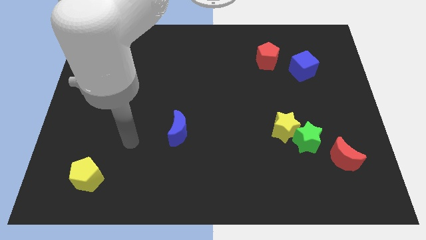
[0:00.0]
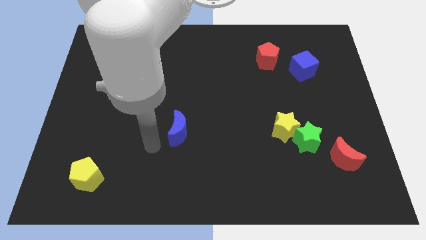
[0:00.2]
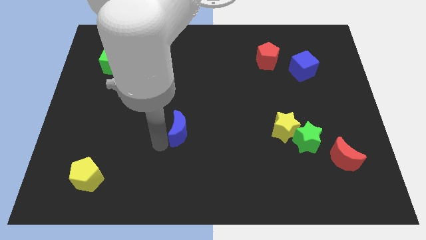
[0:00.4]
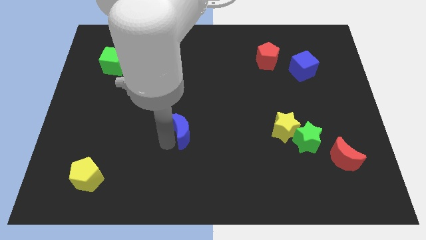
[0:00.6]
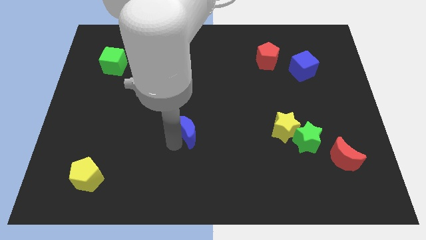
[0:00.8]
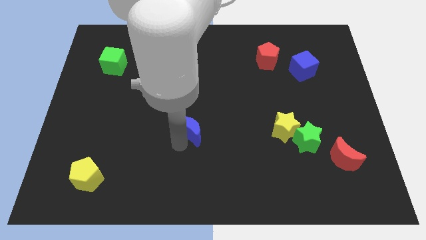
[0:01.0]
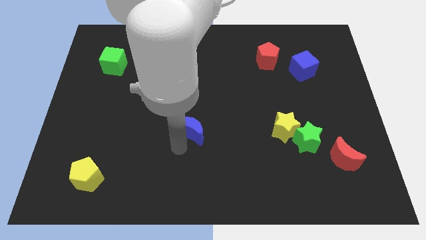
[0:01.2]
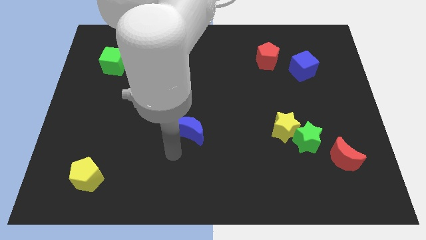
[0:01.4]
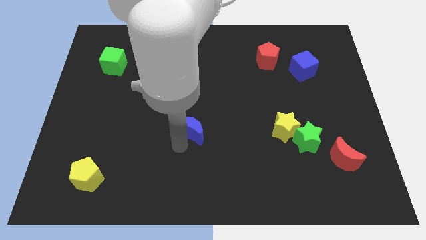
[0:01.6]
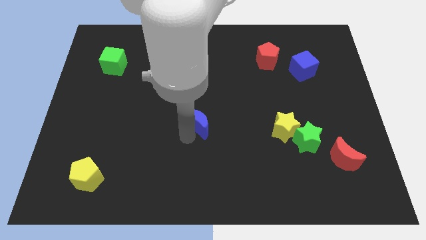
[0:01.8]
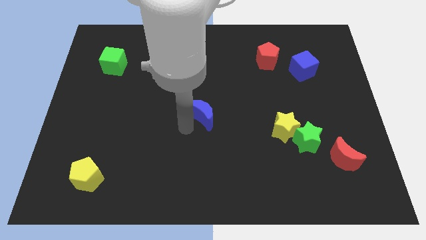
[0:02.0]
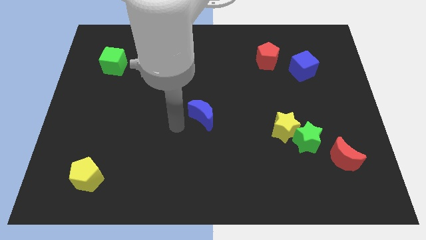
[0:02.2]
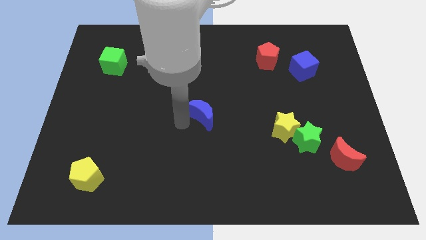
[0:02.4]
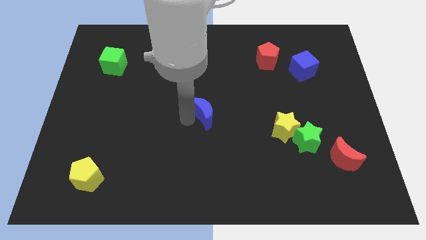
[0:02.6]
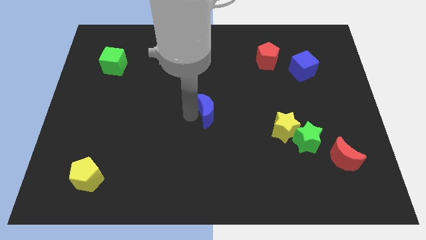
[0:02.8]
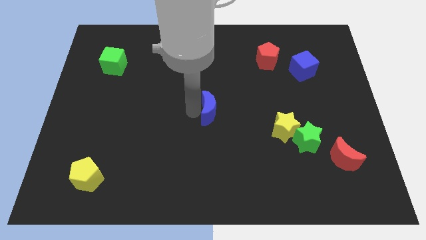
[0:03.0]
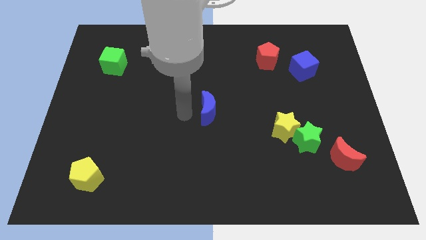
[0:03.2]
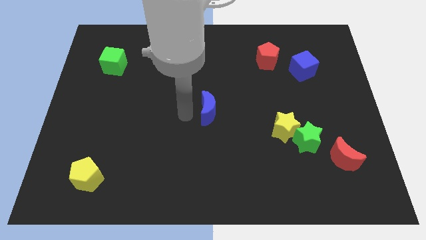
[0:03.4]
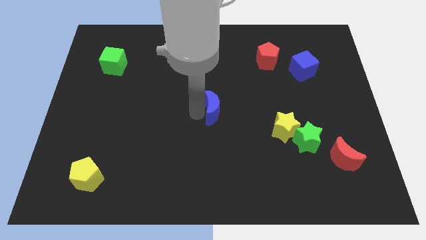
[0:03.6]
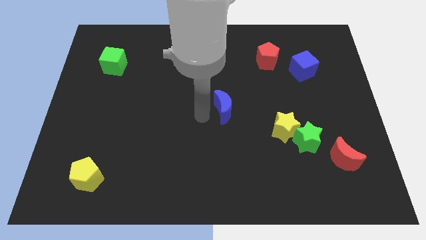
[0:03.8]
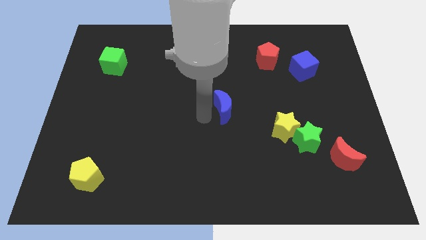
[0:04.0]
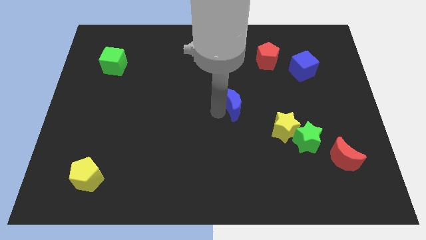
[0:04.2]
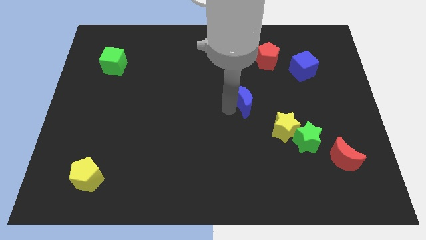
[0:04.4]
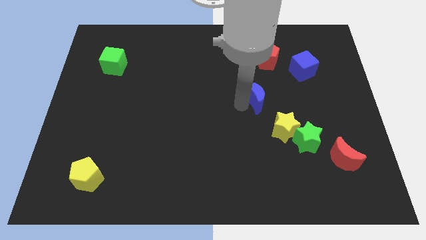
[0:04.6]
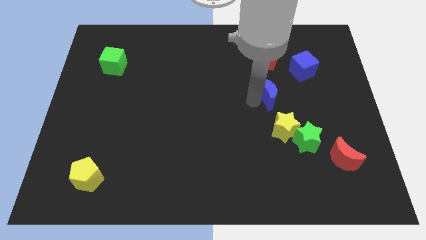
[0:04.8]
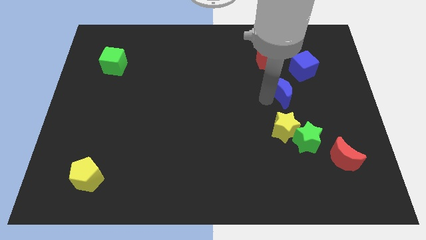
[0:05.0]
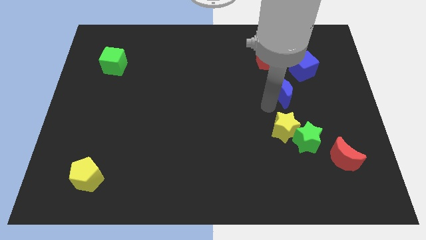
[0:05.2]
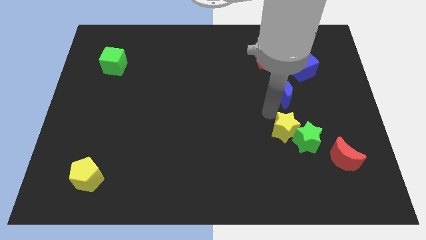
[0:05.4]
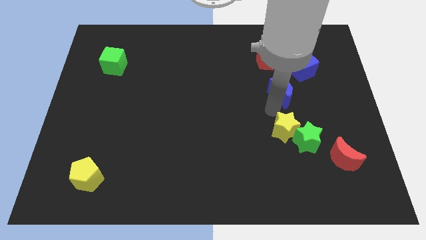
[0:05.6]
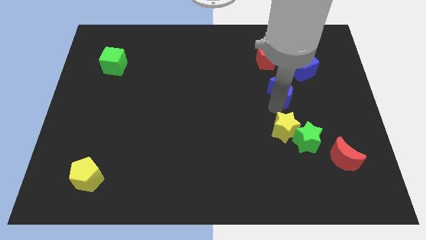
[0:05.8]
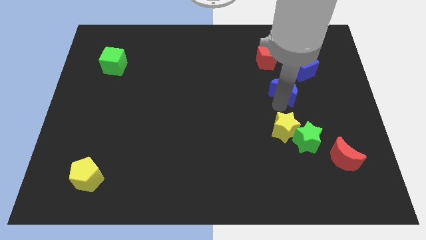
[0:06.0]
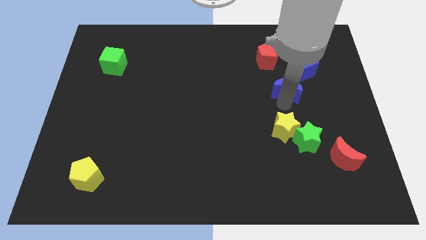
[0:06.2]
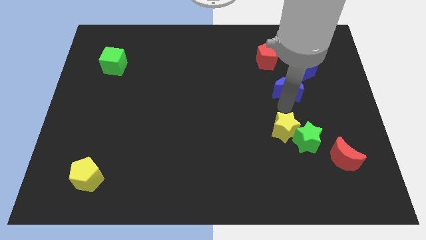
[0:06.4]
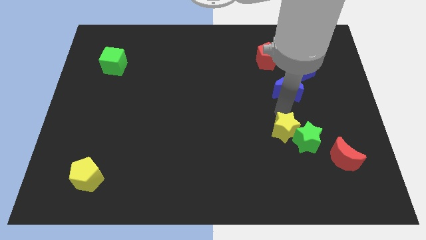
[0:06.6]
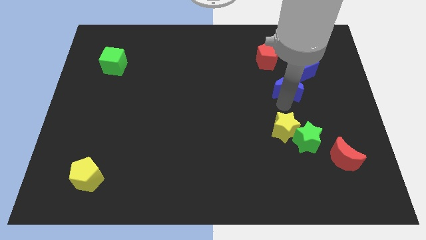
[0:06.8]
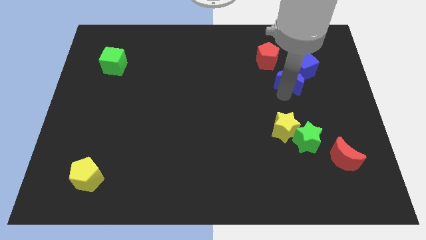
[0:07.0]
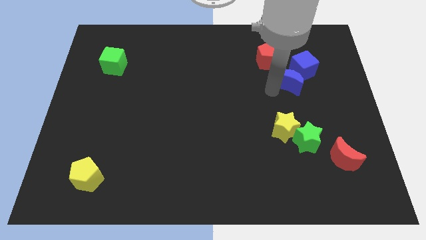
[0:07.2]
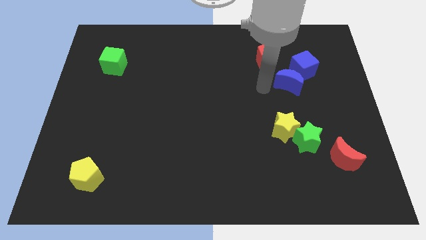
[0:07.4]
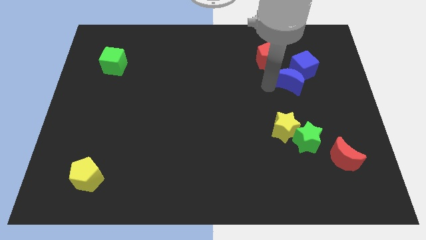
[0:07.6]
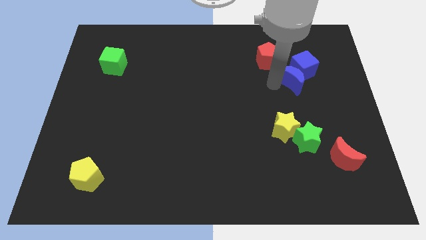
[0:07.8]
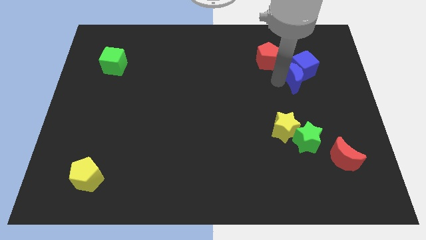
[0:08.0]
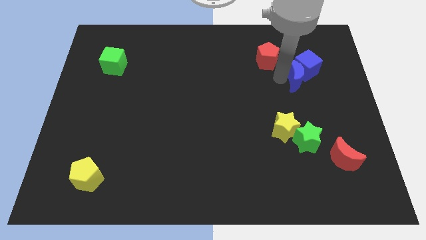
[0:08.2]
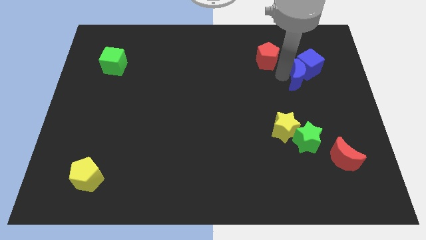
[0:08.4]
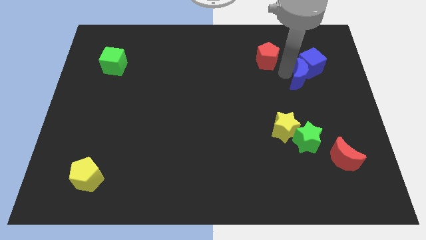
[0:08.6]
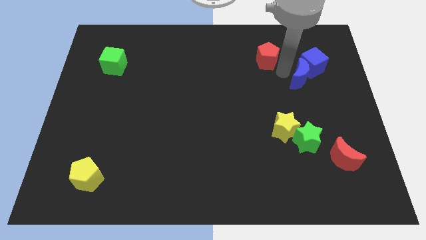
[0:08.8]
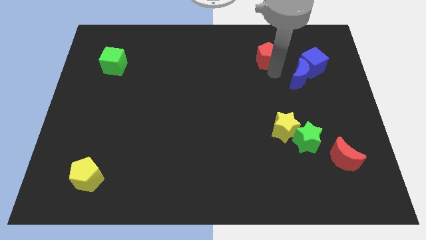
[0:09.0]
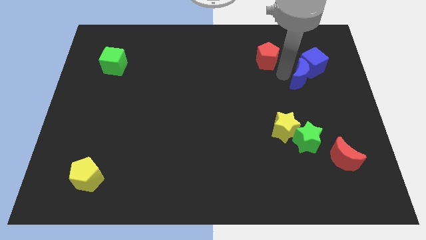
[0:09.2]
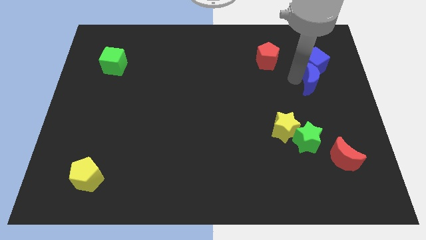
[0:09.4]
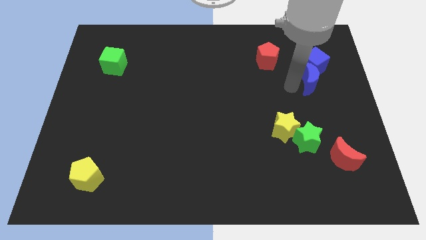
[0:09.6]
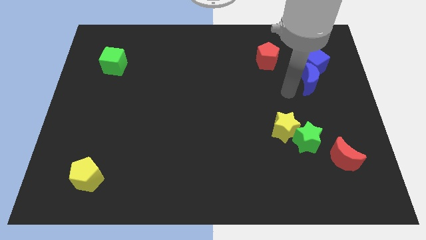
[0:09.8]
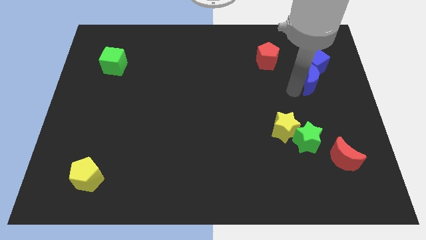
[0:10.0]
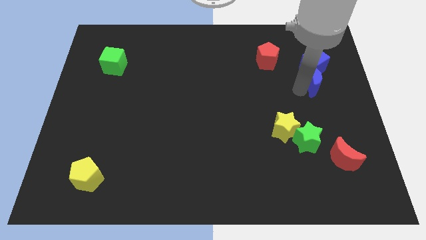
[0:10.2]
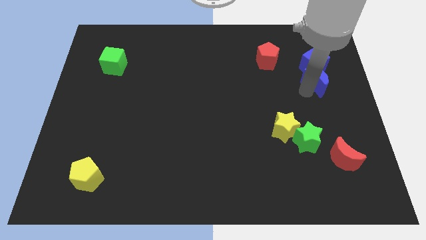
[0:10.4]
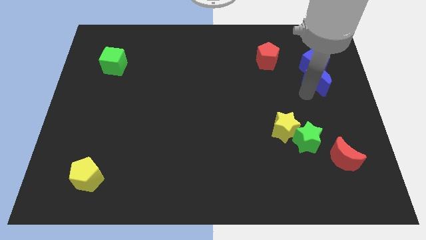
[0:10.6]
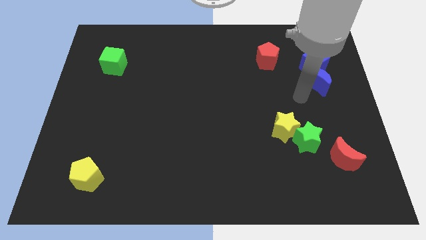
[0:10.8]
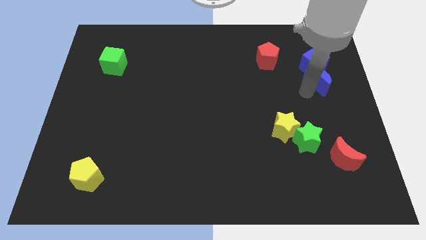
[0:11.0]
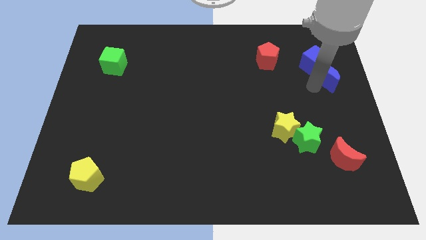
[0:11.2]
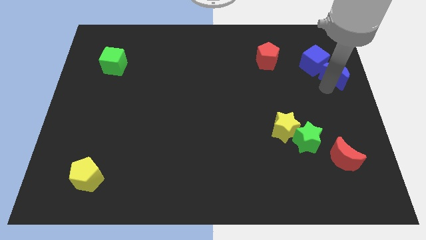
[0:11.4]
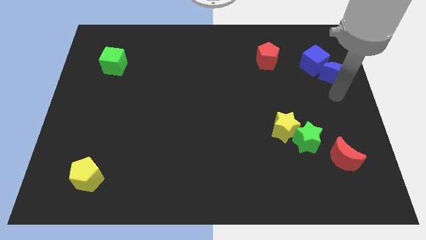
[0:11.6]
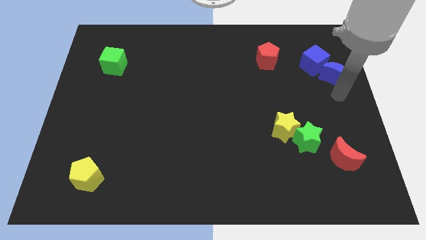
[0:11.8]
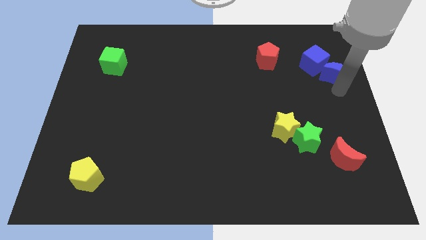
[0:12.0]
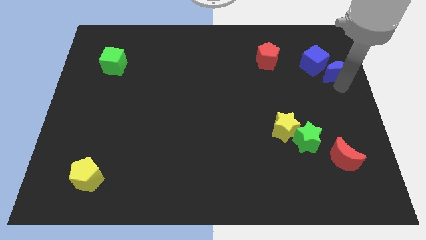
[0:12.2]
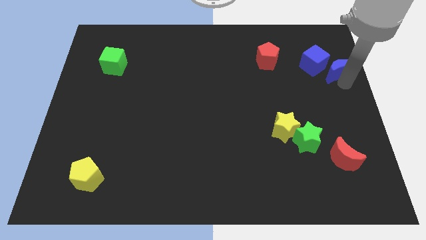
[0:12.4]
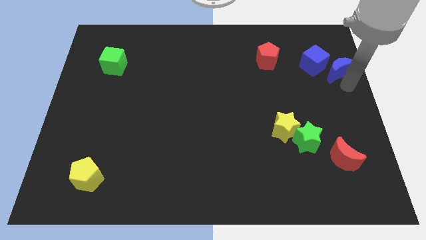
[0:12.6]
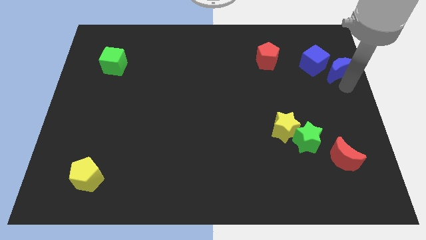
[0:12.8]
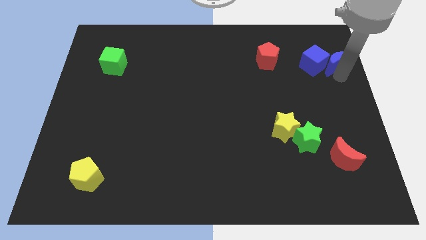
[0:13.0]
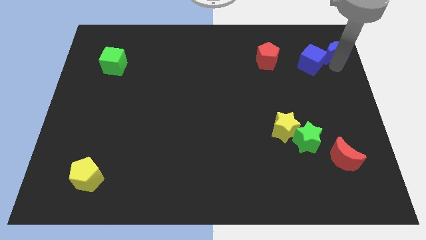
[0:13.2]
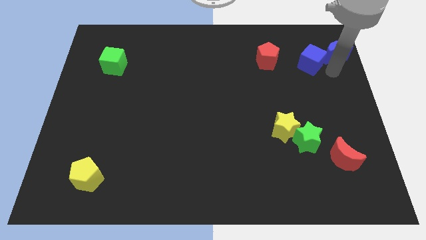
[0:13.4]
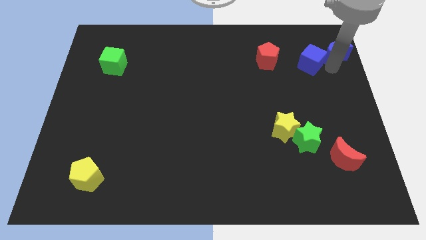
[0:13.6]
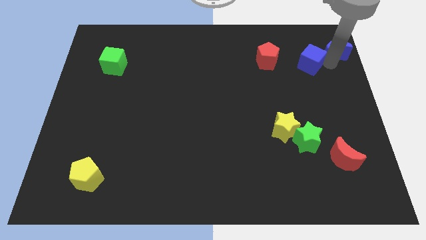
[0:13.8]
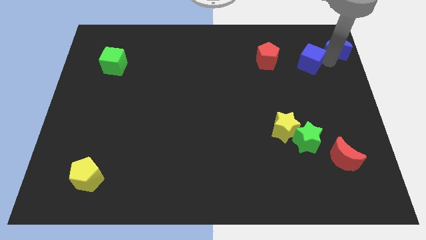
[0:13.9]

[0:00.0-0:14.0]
move the blue moon to the upper right corner
